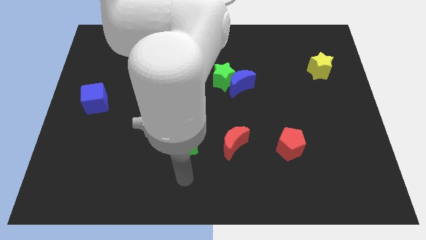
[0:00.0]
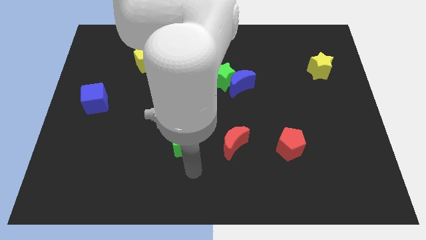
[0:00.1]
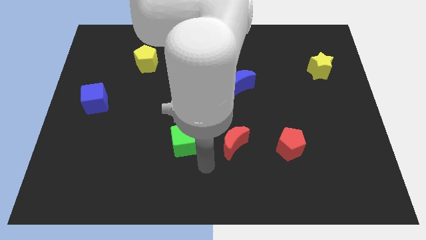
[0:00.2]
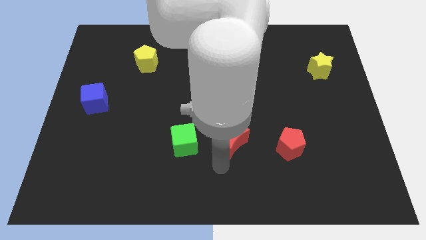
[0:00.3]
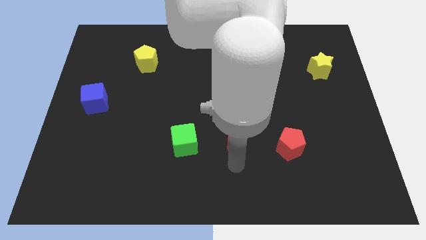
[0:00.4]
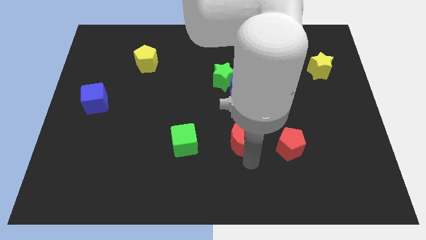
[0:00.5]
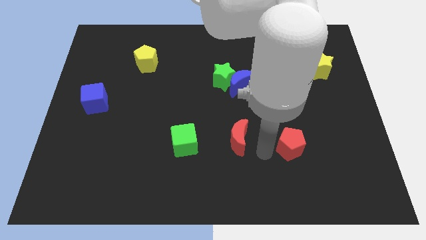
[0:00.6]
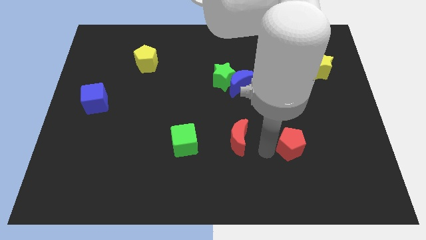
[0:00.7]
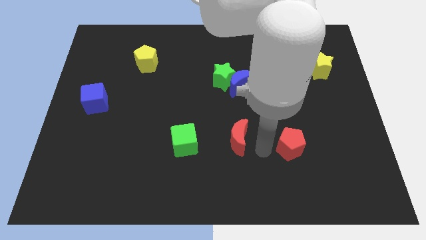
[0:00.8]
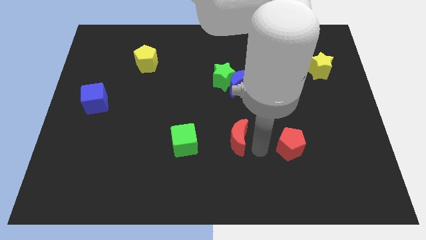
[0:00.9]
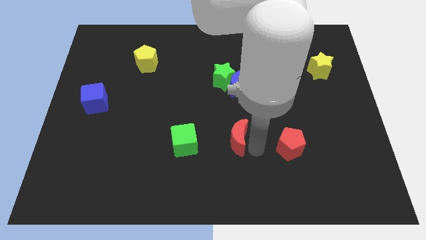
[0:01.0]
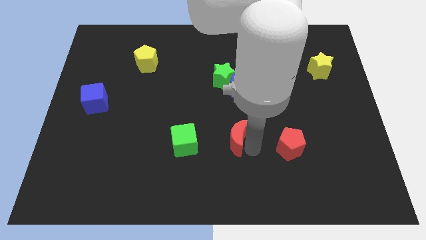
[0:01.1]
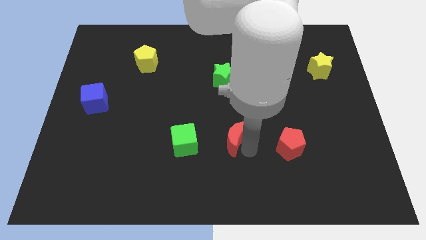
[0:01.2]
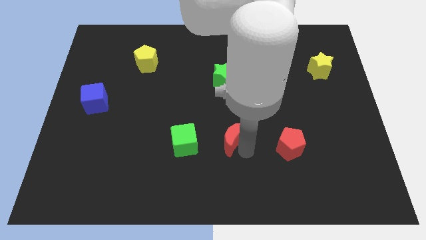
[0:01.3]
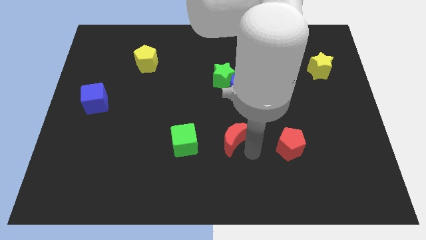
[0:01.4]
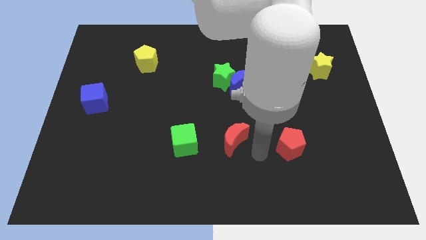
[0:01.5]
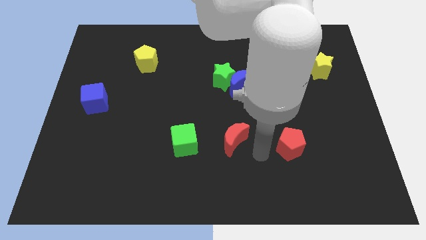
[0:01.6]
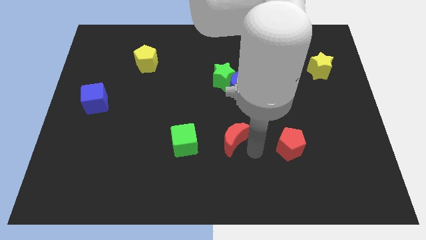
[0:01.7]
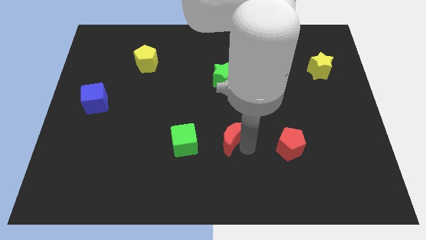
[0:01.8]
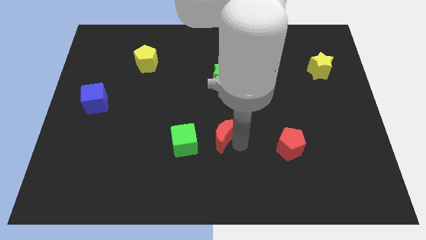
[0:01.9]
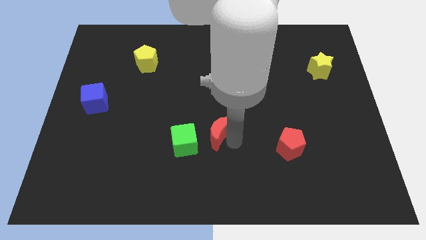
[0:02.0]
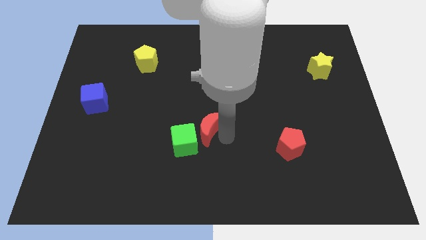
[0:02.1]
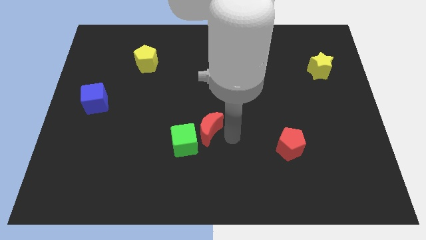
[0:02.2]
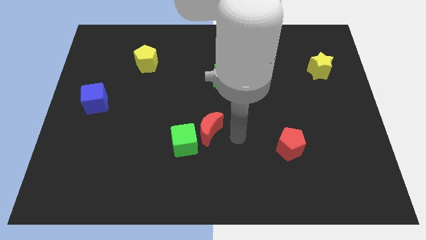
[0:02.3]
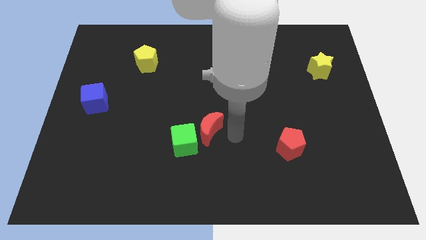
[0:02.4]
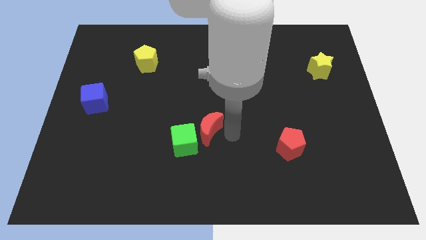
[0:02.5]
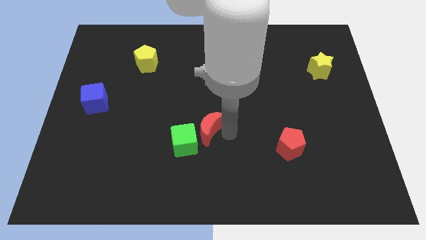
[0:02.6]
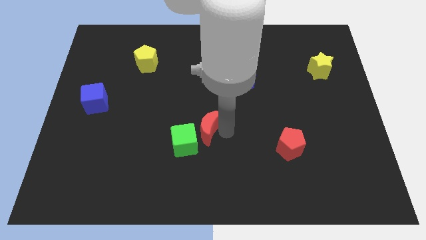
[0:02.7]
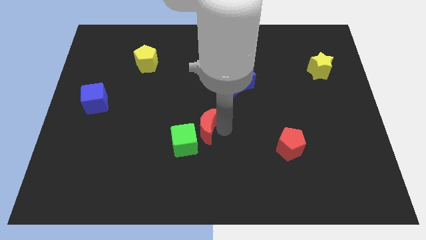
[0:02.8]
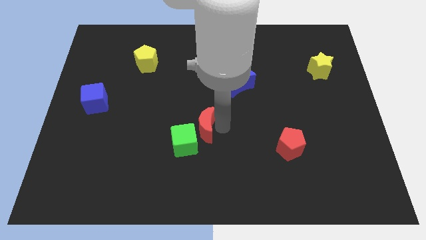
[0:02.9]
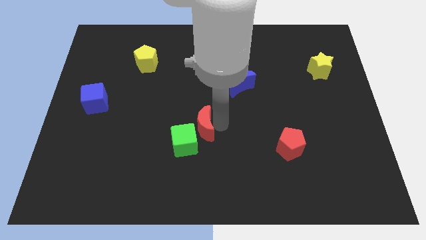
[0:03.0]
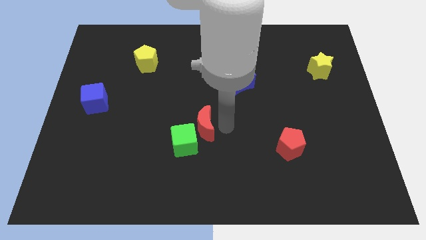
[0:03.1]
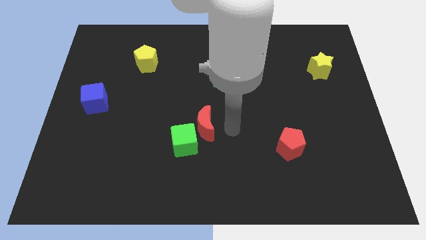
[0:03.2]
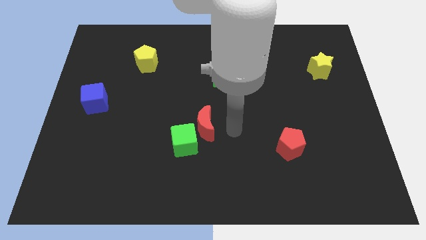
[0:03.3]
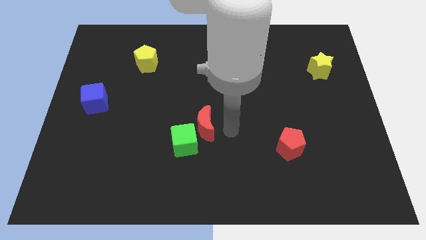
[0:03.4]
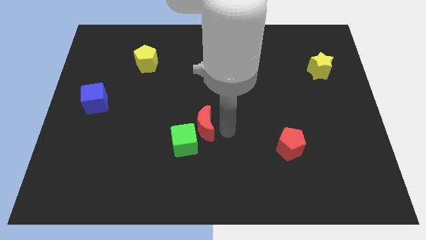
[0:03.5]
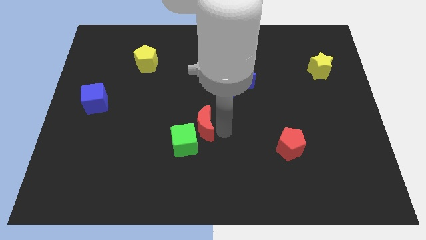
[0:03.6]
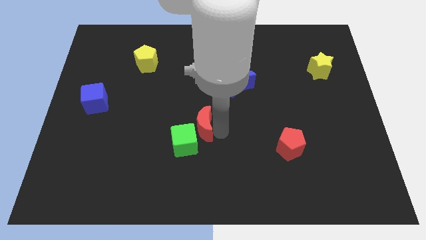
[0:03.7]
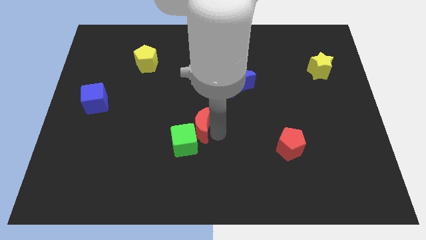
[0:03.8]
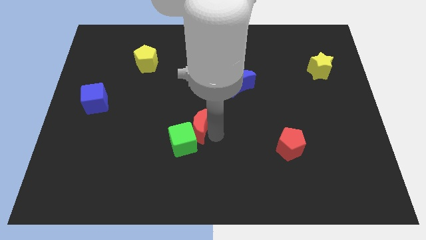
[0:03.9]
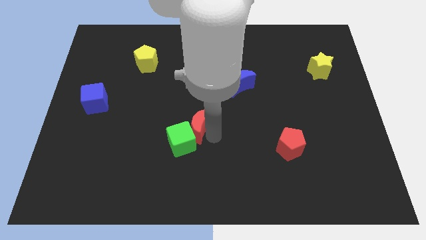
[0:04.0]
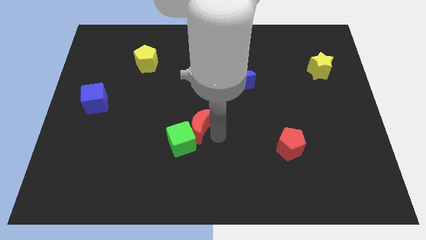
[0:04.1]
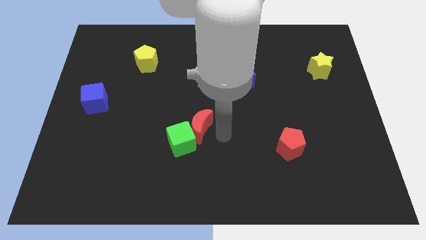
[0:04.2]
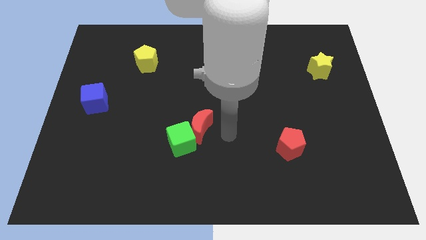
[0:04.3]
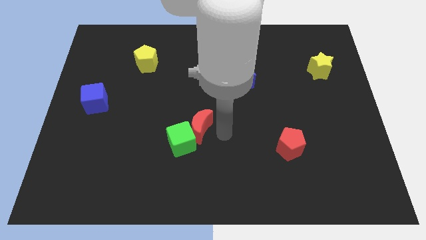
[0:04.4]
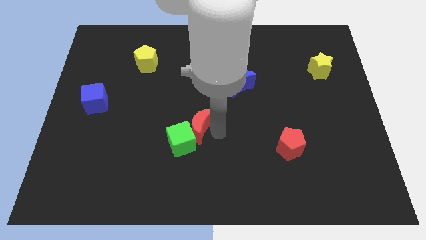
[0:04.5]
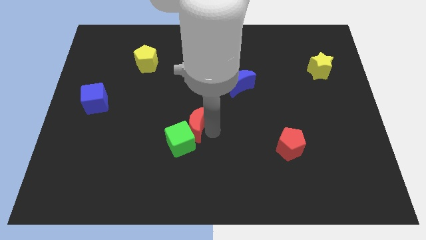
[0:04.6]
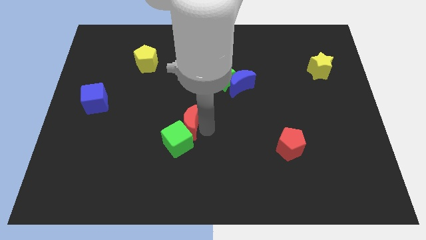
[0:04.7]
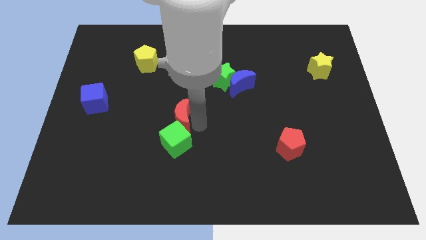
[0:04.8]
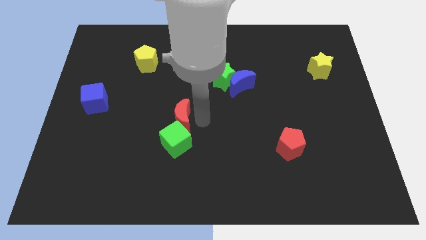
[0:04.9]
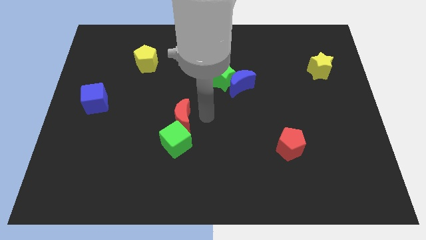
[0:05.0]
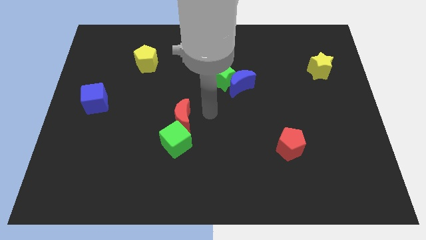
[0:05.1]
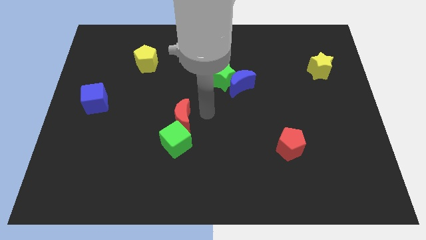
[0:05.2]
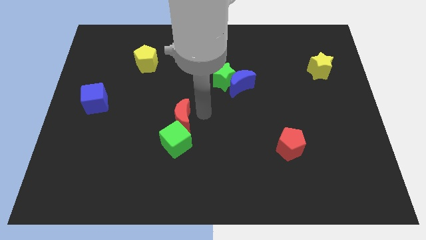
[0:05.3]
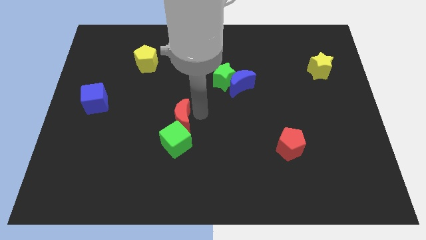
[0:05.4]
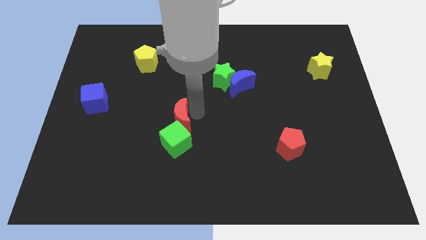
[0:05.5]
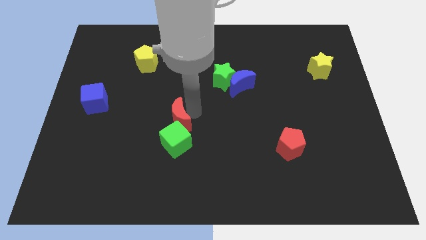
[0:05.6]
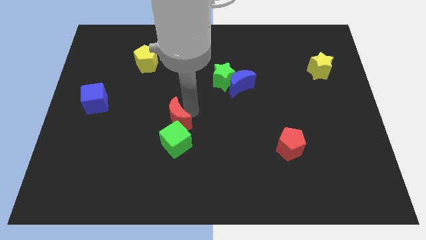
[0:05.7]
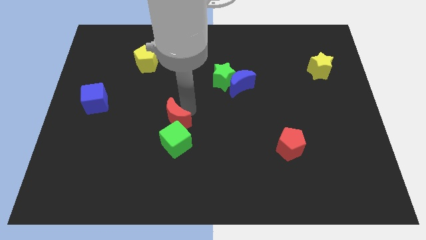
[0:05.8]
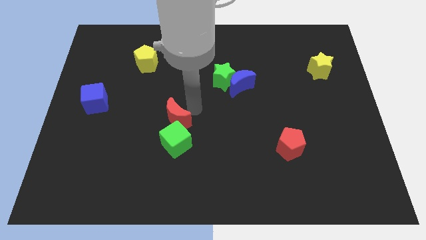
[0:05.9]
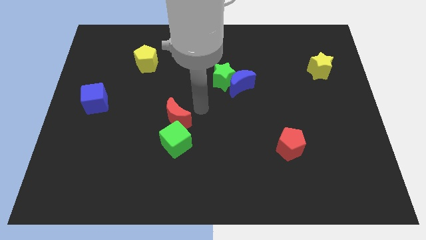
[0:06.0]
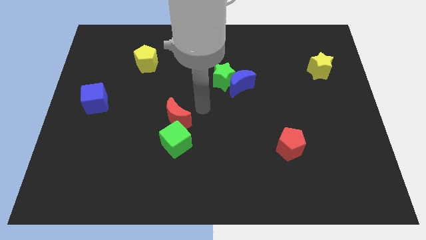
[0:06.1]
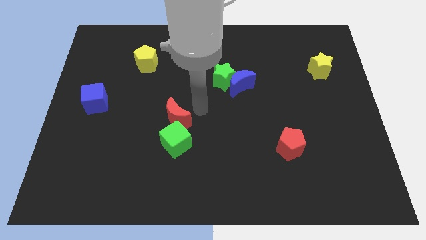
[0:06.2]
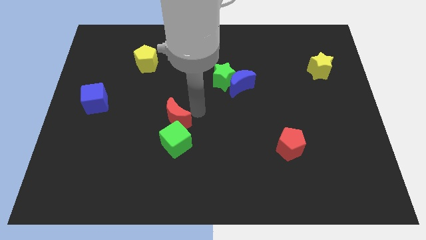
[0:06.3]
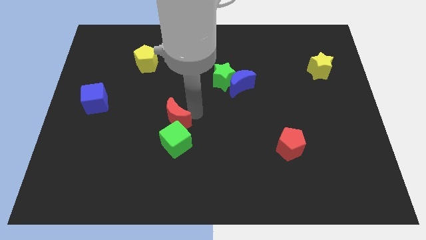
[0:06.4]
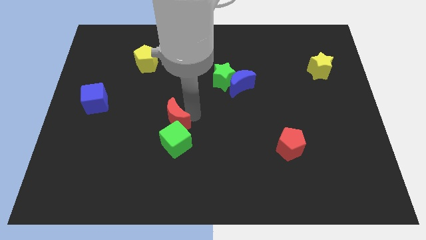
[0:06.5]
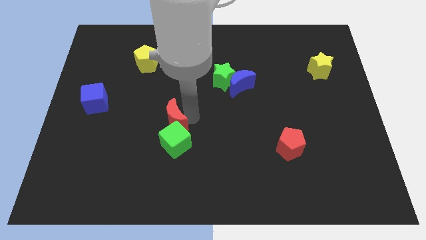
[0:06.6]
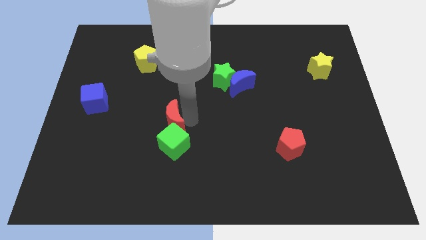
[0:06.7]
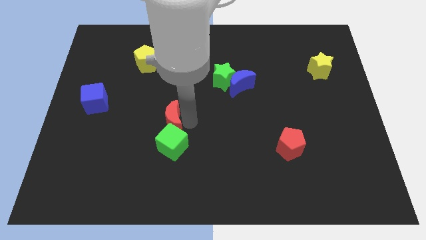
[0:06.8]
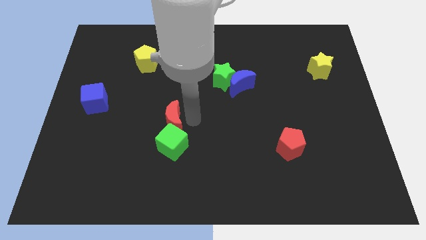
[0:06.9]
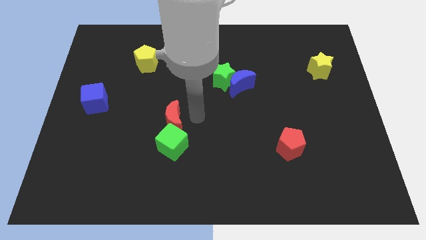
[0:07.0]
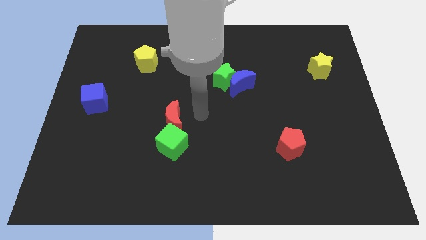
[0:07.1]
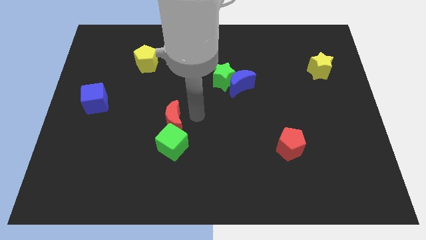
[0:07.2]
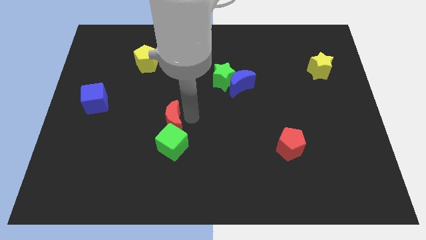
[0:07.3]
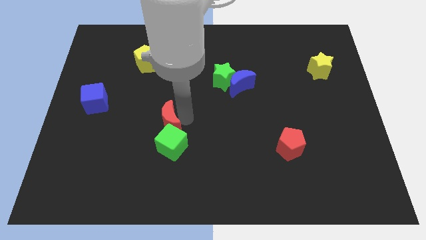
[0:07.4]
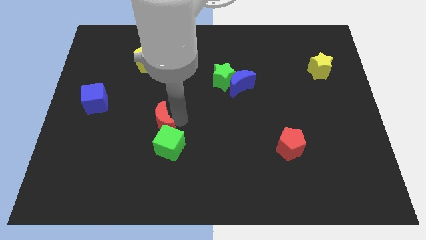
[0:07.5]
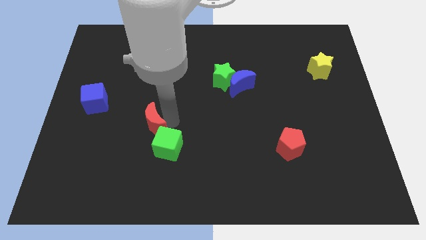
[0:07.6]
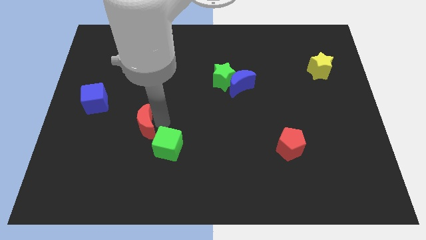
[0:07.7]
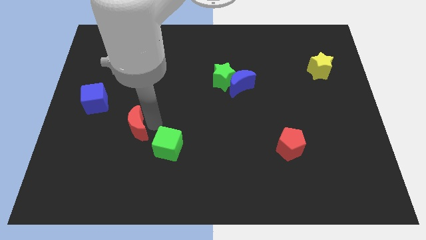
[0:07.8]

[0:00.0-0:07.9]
move the red moon to the left
